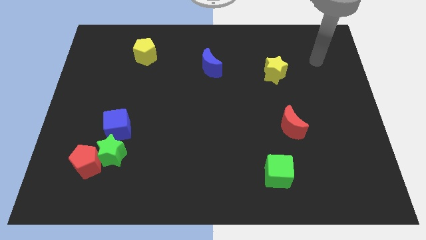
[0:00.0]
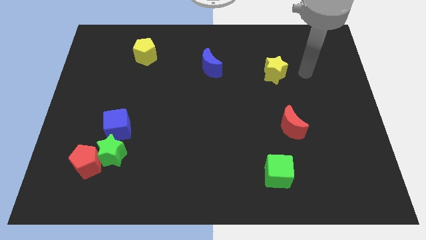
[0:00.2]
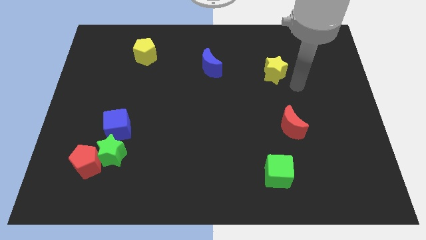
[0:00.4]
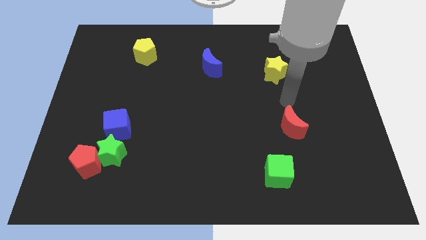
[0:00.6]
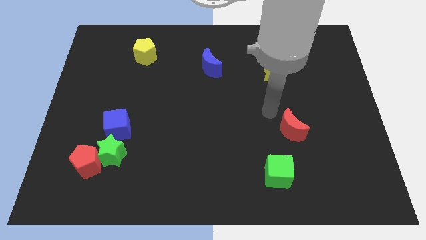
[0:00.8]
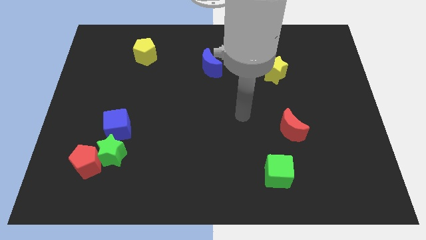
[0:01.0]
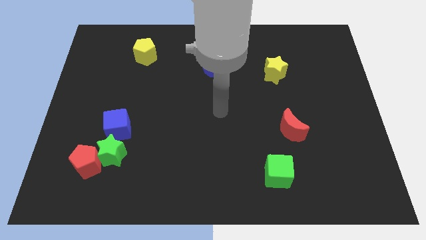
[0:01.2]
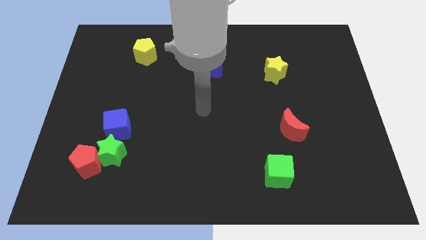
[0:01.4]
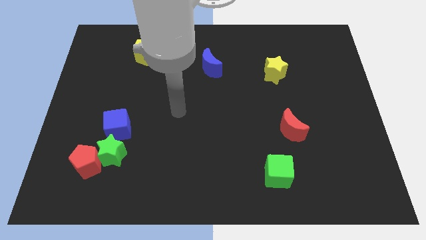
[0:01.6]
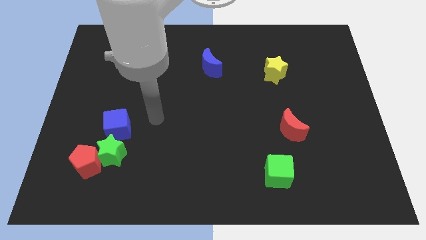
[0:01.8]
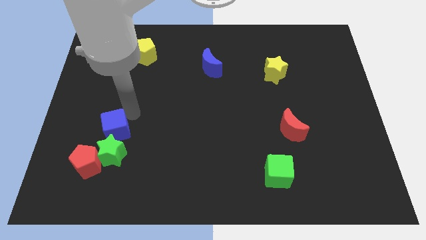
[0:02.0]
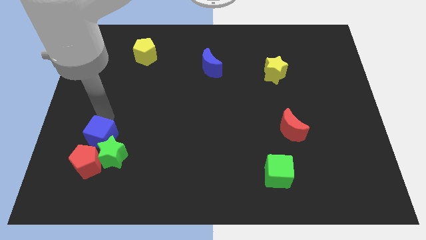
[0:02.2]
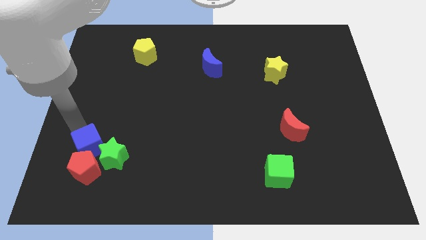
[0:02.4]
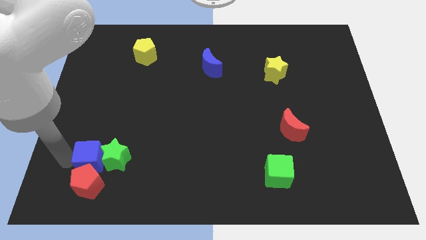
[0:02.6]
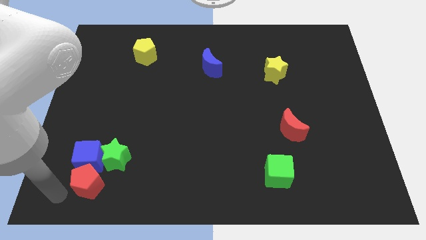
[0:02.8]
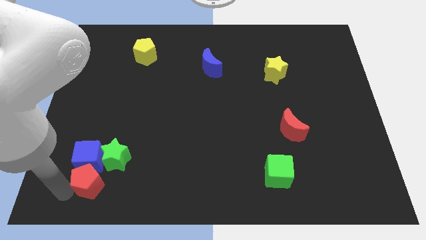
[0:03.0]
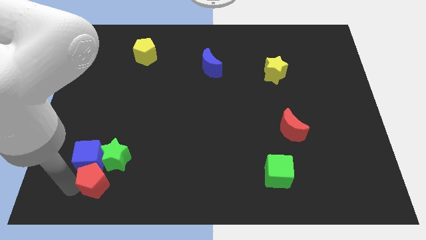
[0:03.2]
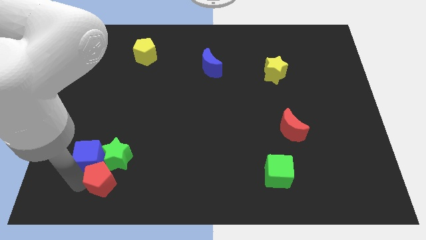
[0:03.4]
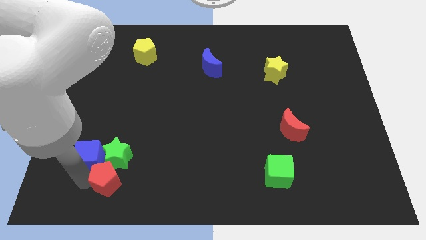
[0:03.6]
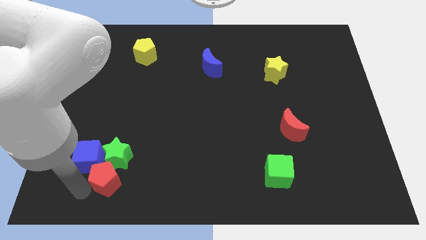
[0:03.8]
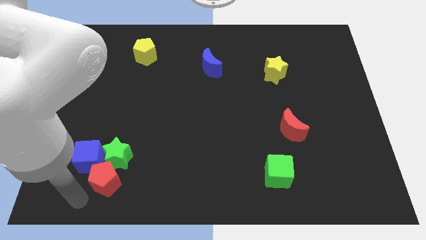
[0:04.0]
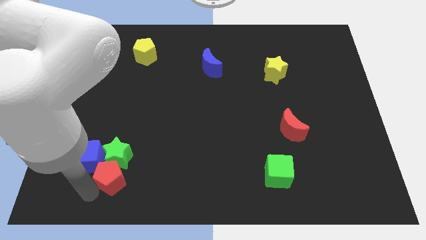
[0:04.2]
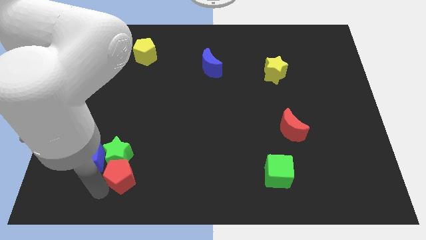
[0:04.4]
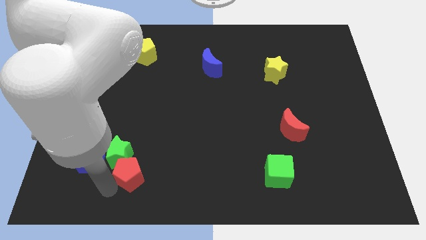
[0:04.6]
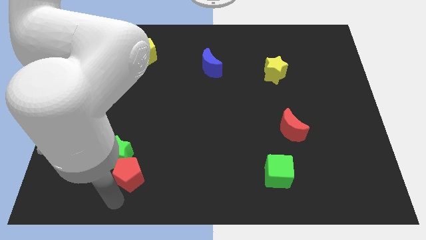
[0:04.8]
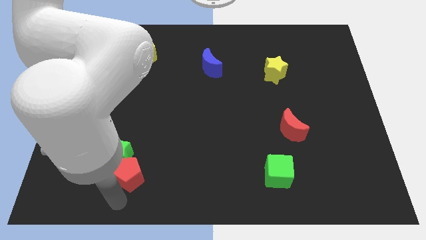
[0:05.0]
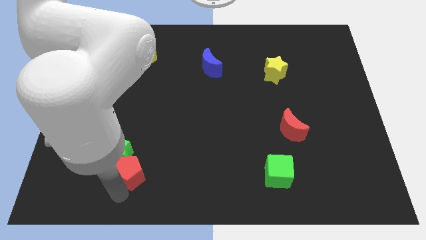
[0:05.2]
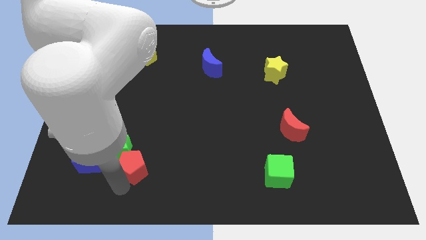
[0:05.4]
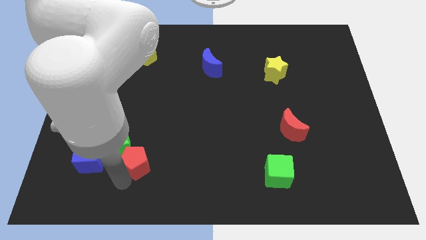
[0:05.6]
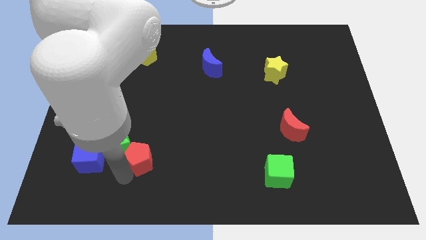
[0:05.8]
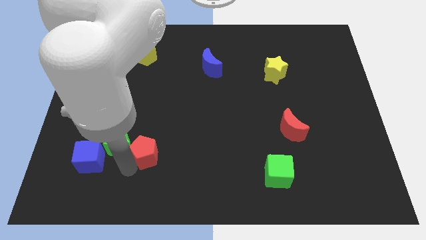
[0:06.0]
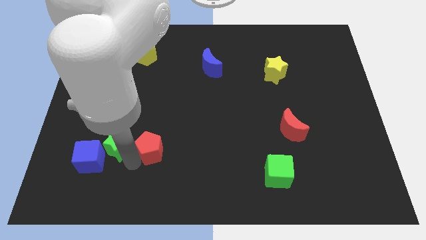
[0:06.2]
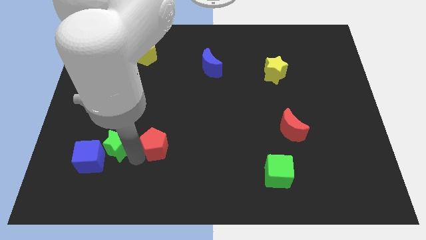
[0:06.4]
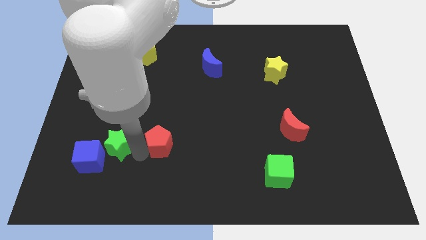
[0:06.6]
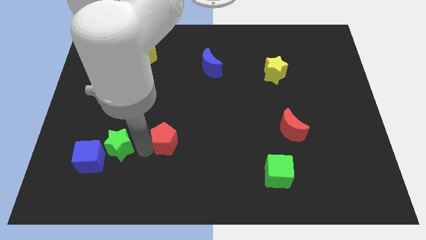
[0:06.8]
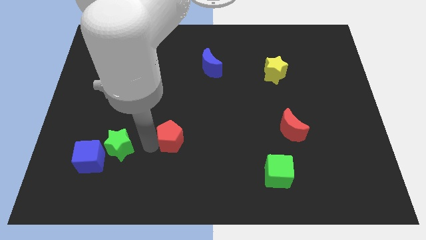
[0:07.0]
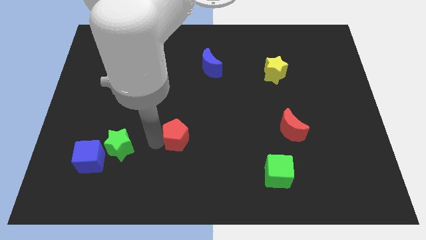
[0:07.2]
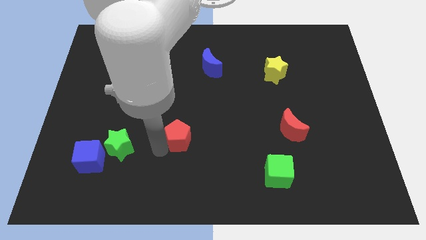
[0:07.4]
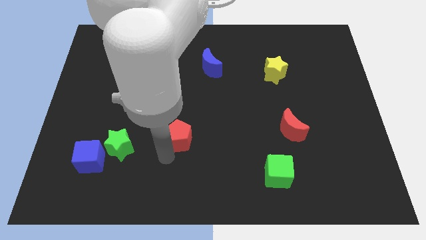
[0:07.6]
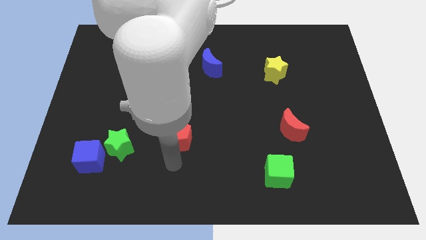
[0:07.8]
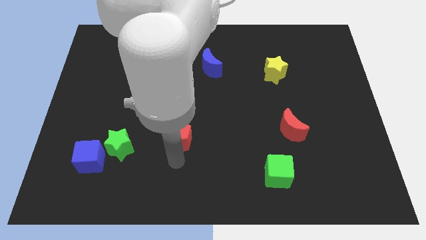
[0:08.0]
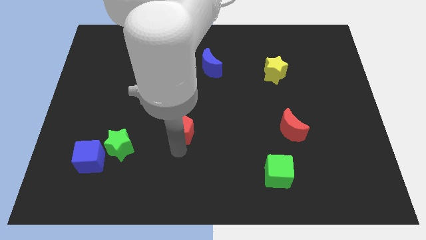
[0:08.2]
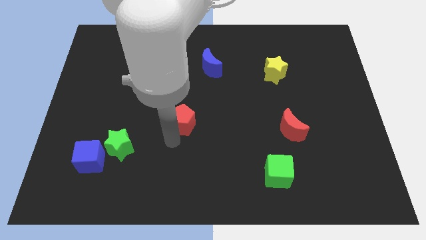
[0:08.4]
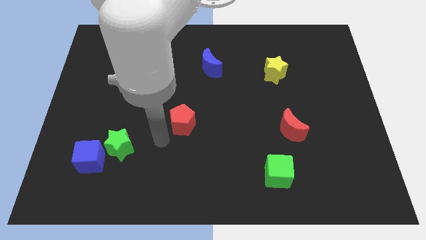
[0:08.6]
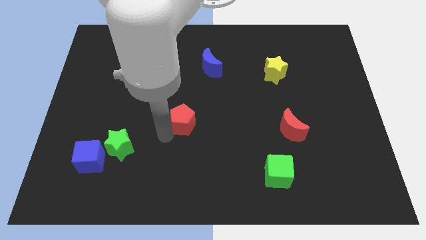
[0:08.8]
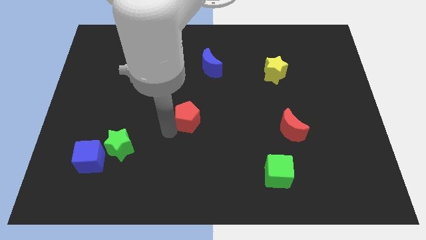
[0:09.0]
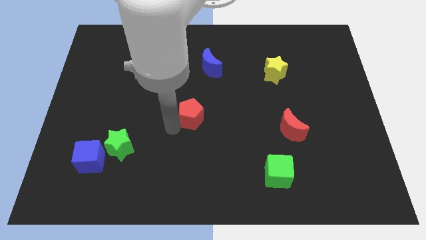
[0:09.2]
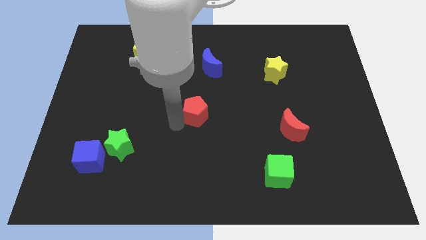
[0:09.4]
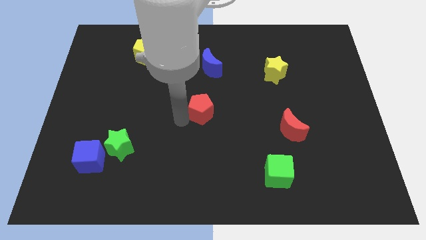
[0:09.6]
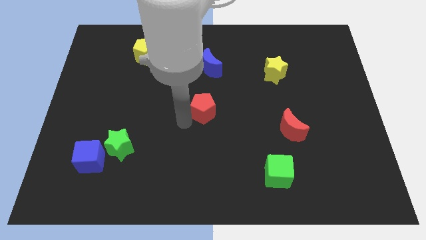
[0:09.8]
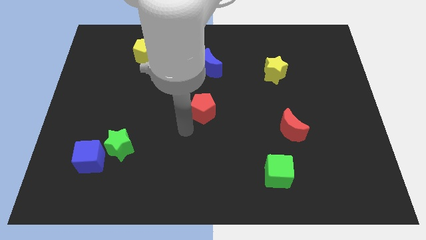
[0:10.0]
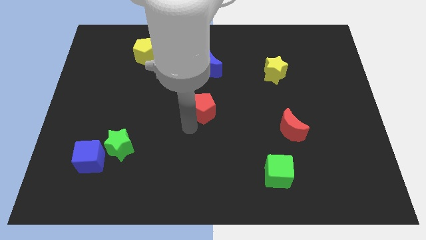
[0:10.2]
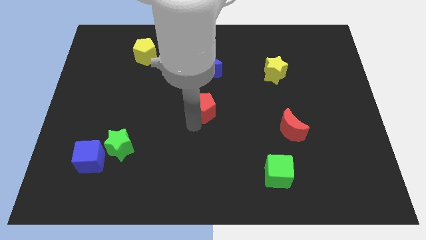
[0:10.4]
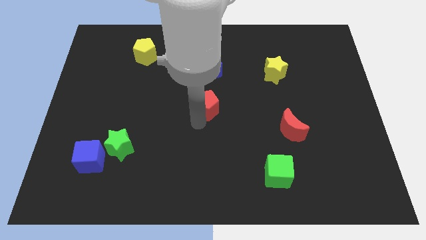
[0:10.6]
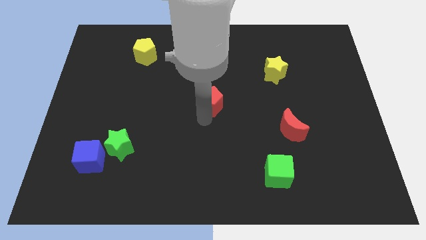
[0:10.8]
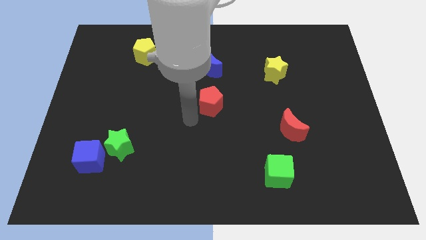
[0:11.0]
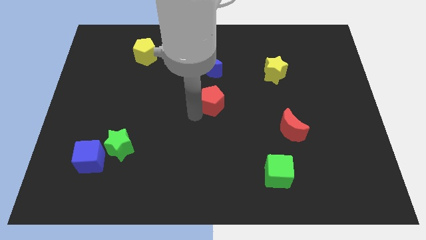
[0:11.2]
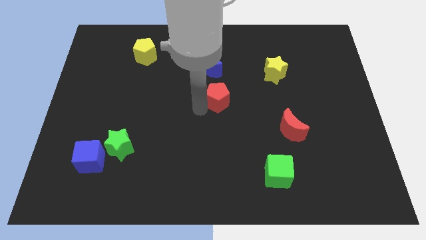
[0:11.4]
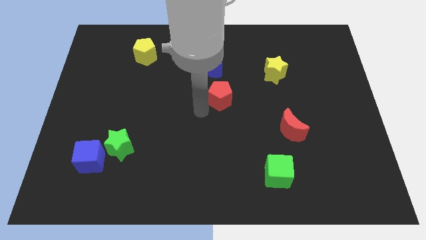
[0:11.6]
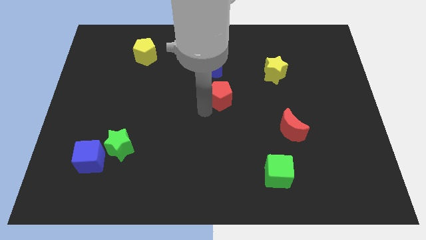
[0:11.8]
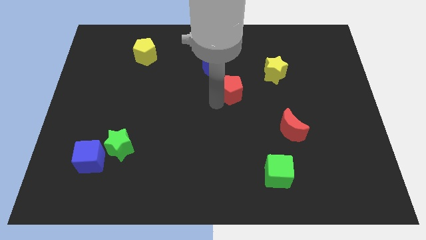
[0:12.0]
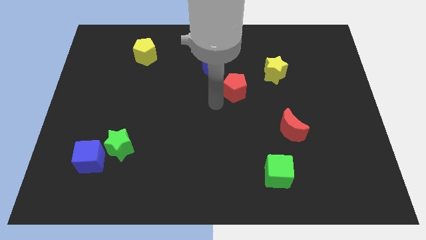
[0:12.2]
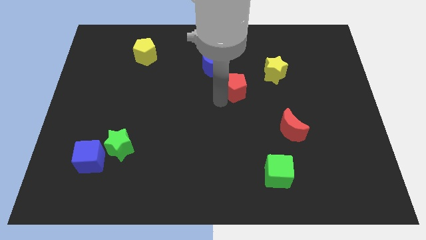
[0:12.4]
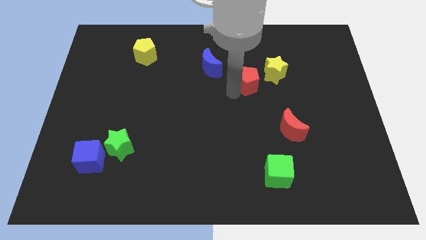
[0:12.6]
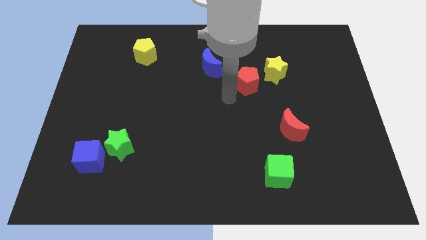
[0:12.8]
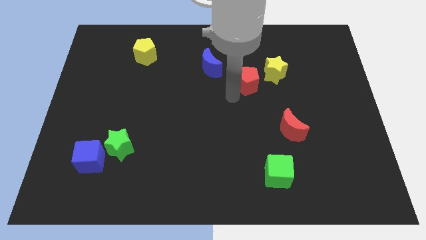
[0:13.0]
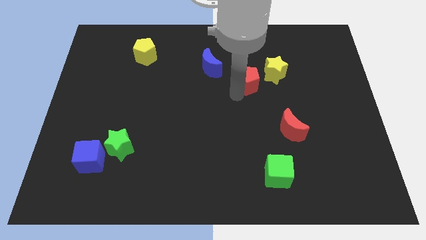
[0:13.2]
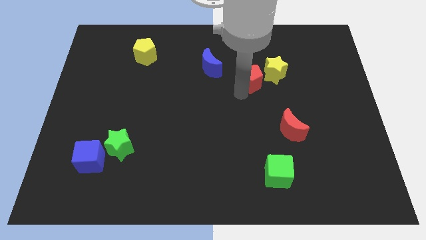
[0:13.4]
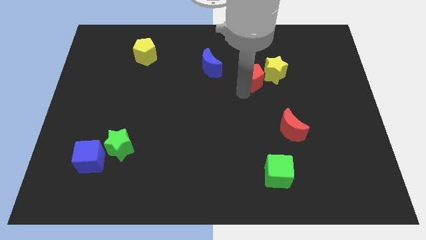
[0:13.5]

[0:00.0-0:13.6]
push the red pentagon close to the yellow star
